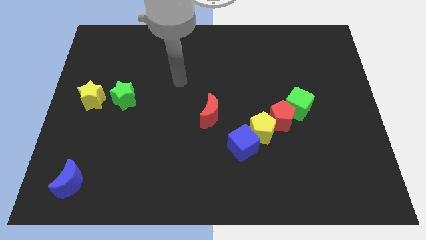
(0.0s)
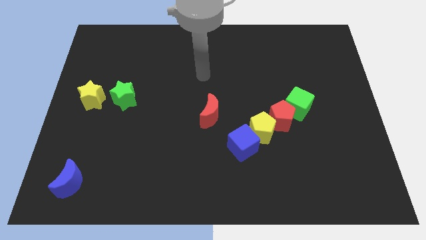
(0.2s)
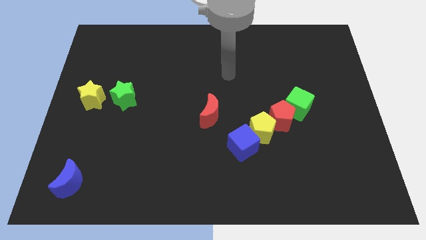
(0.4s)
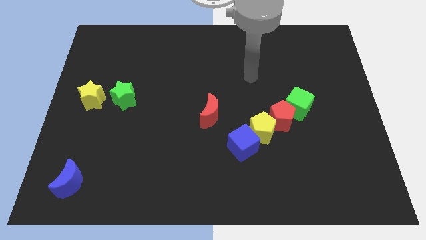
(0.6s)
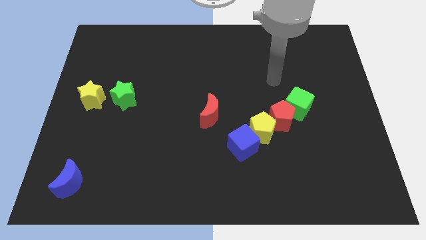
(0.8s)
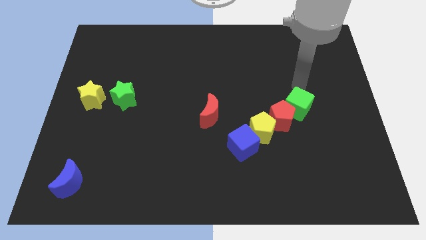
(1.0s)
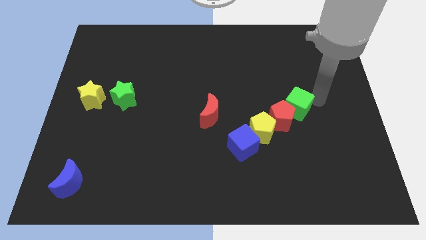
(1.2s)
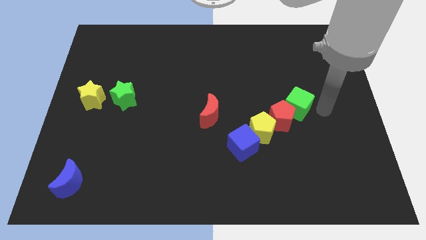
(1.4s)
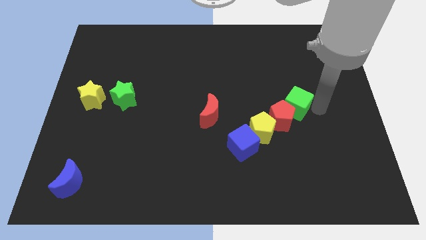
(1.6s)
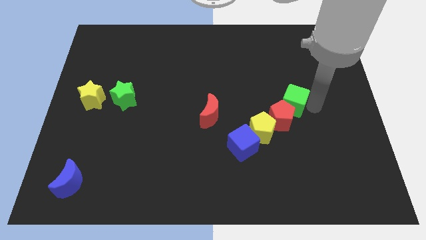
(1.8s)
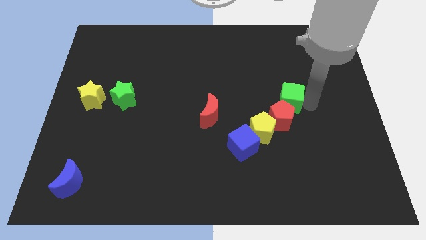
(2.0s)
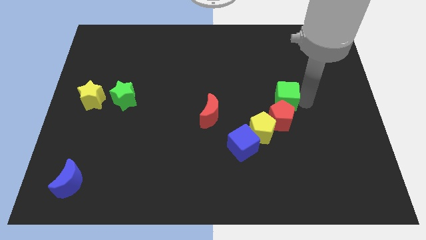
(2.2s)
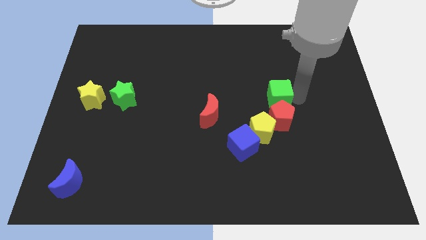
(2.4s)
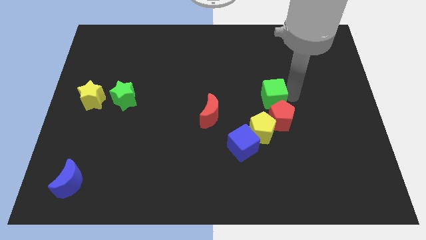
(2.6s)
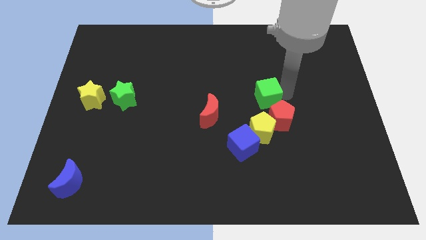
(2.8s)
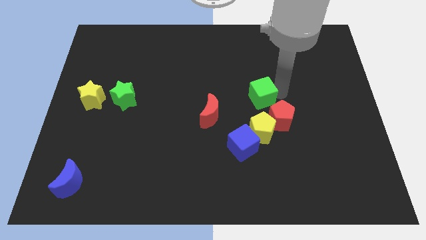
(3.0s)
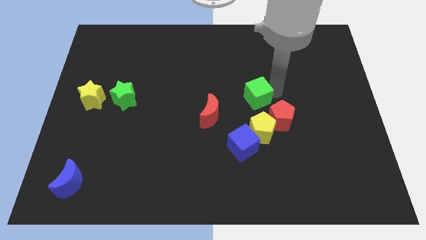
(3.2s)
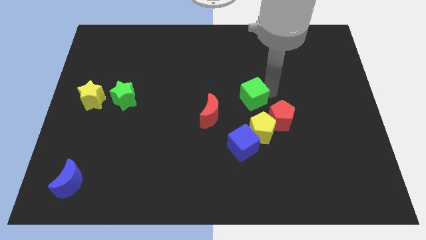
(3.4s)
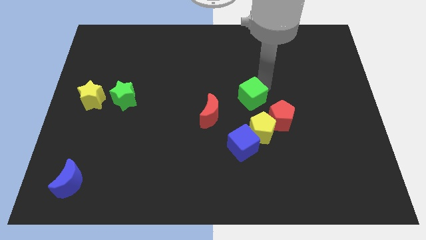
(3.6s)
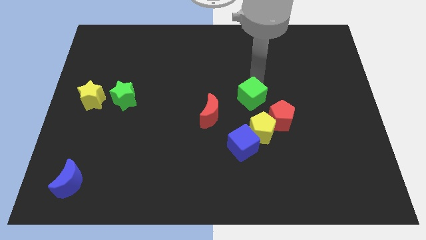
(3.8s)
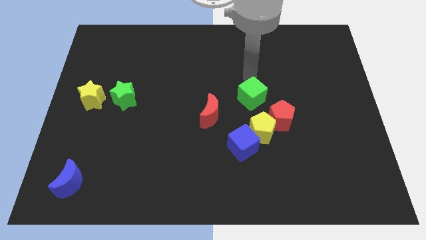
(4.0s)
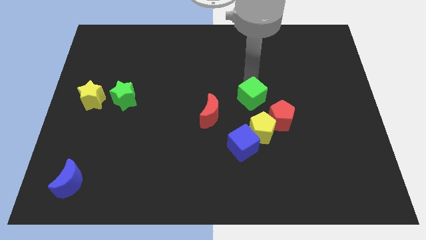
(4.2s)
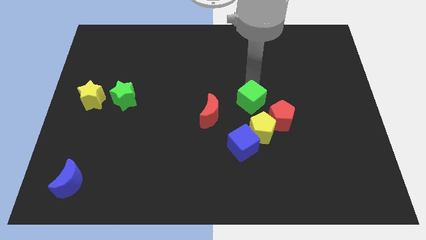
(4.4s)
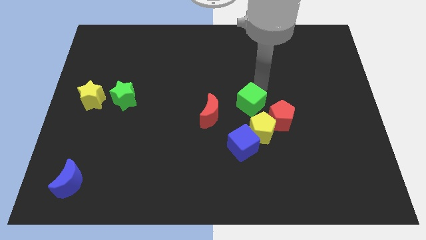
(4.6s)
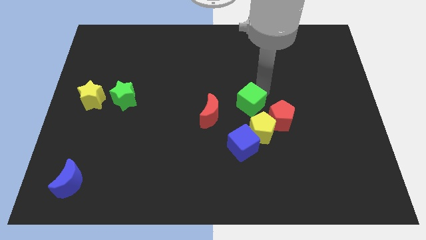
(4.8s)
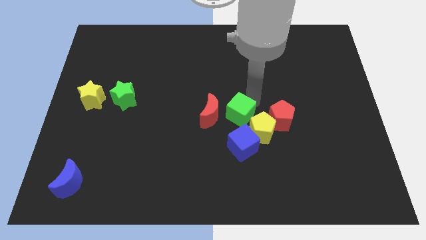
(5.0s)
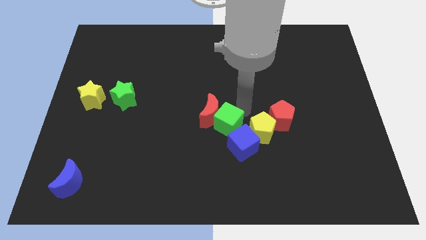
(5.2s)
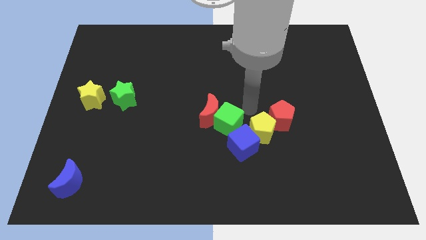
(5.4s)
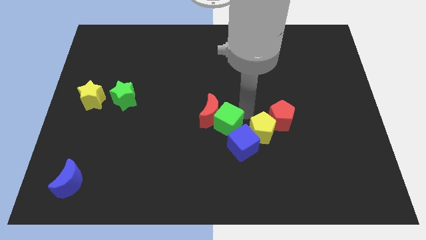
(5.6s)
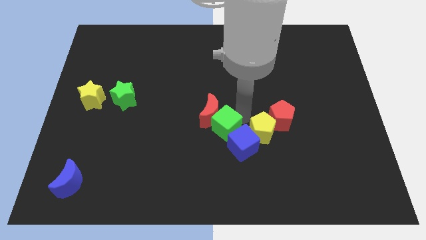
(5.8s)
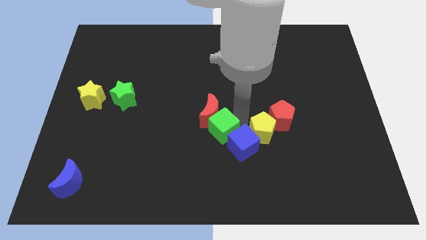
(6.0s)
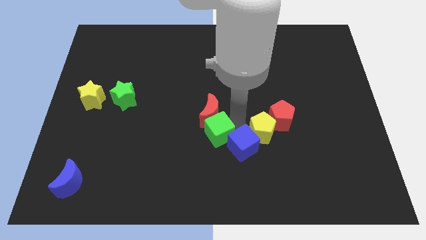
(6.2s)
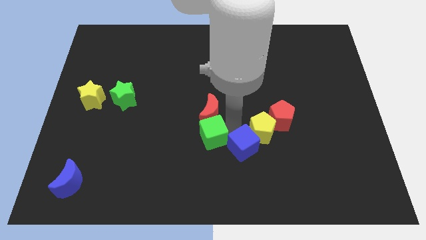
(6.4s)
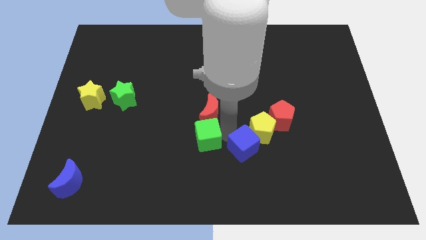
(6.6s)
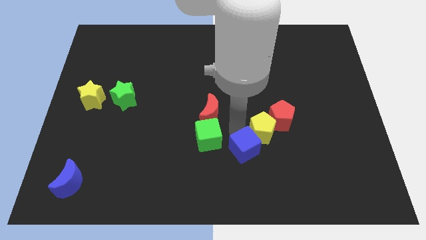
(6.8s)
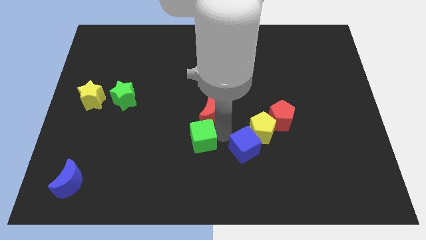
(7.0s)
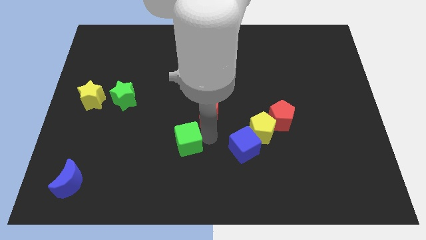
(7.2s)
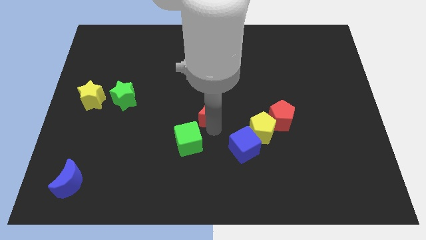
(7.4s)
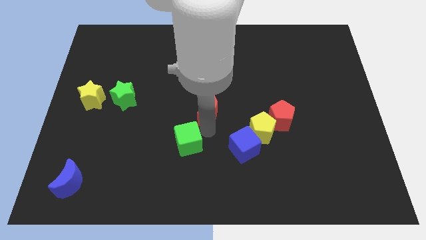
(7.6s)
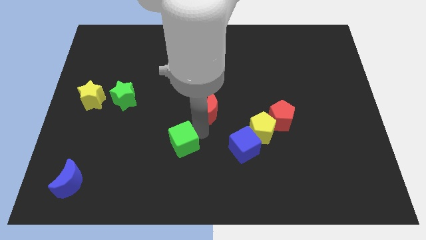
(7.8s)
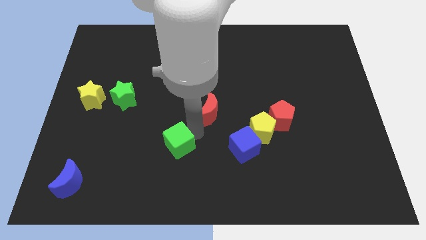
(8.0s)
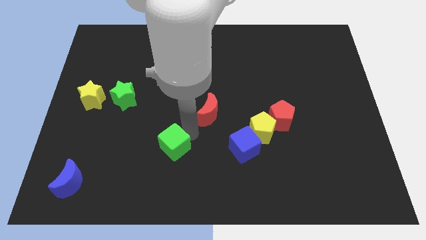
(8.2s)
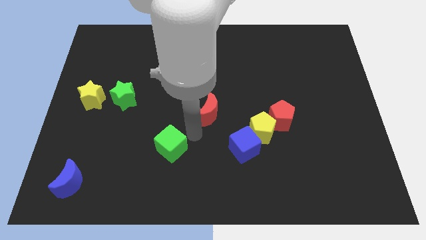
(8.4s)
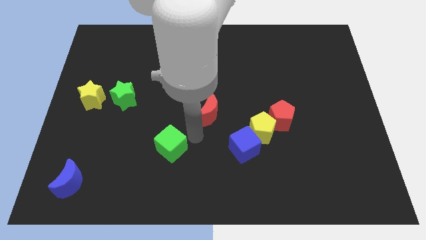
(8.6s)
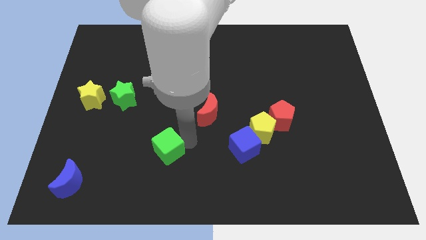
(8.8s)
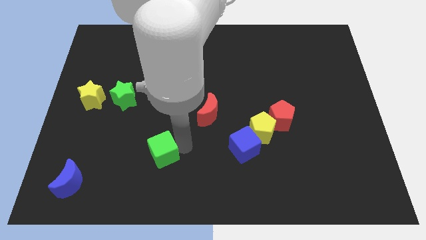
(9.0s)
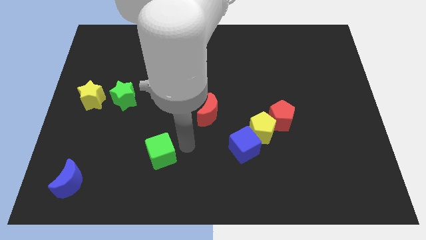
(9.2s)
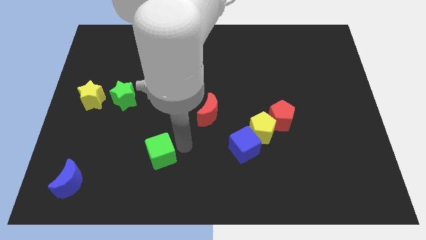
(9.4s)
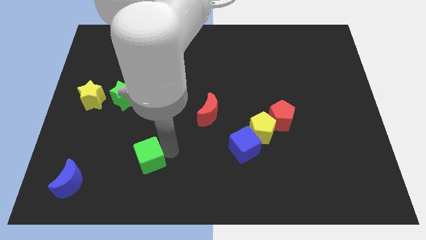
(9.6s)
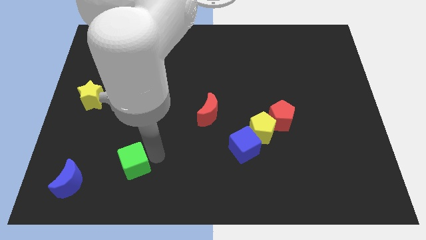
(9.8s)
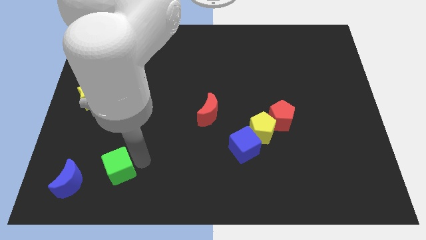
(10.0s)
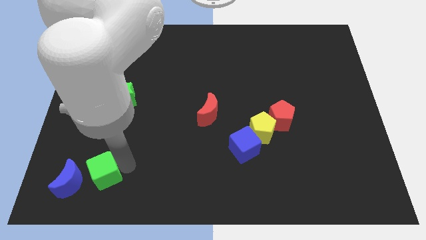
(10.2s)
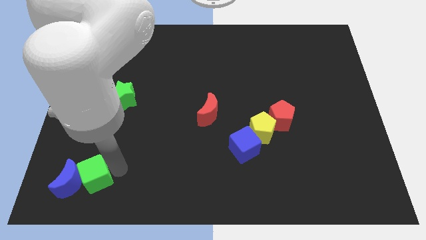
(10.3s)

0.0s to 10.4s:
slide the green cube towards the blue moon

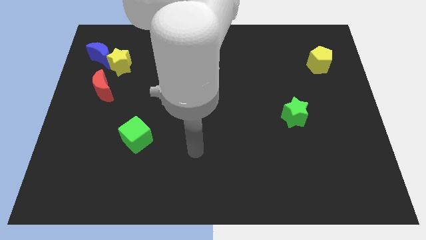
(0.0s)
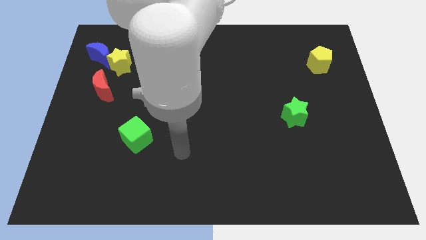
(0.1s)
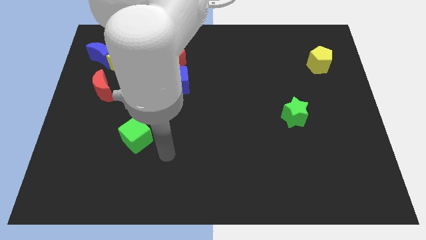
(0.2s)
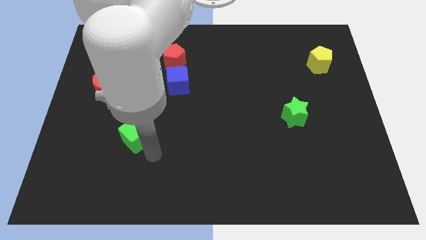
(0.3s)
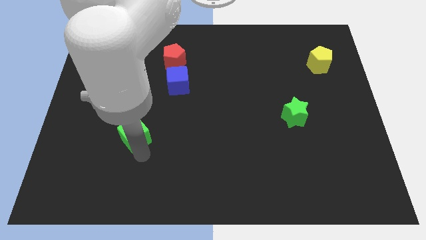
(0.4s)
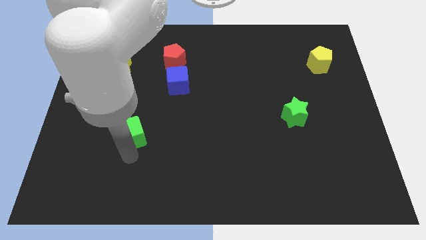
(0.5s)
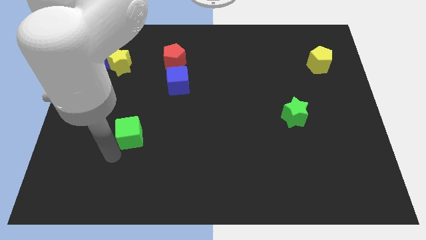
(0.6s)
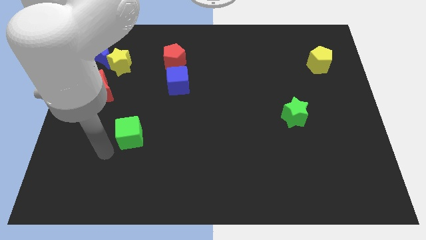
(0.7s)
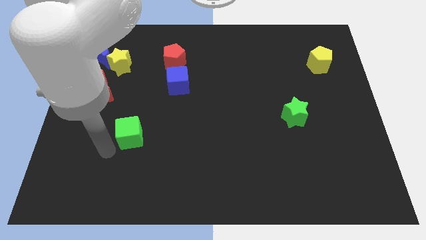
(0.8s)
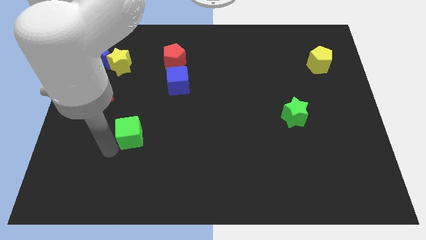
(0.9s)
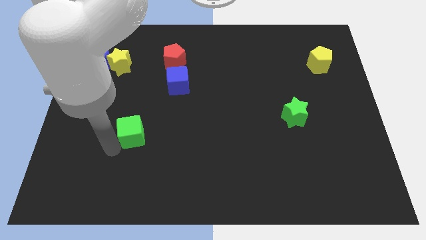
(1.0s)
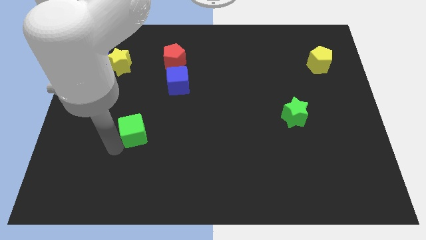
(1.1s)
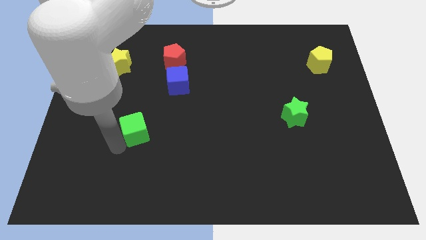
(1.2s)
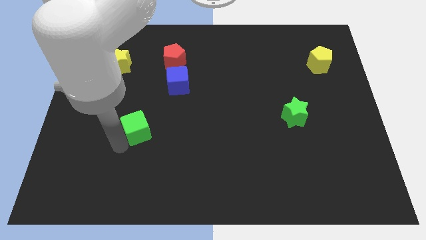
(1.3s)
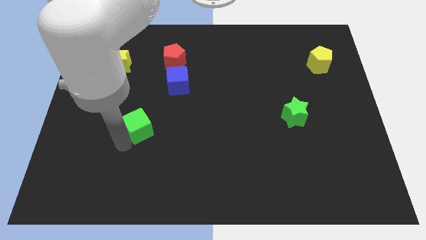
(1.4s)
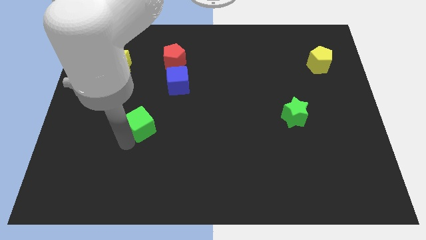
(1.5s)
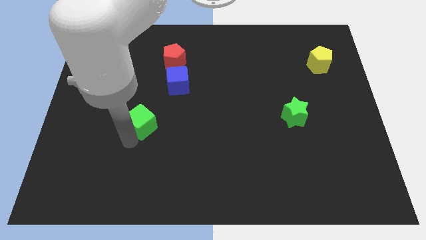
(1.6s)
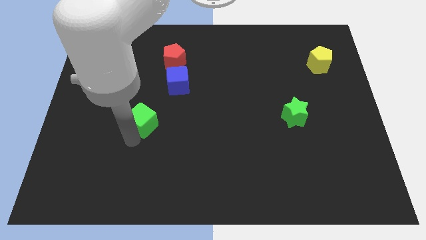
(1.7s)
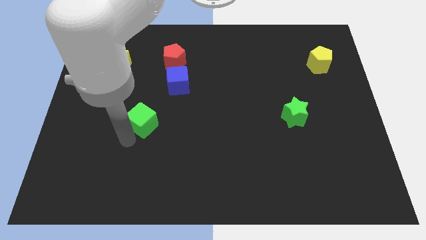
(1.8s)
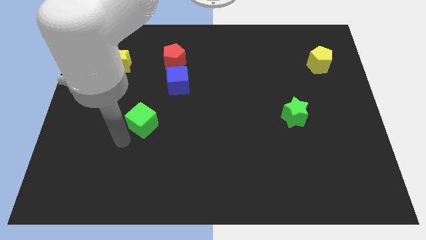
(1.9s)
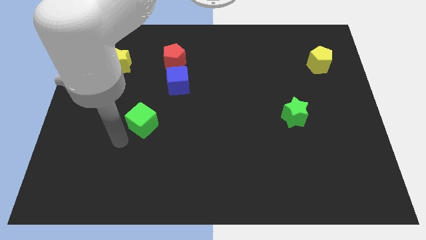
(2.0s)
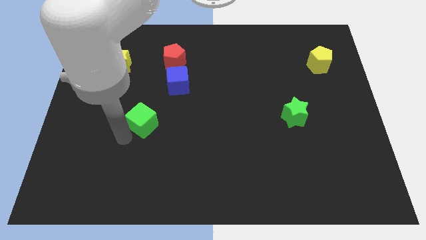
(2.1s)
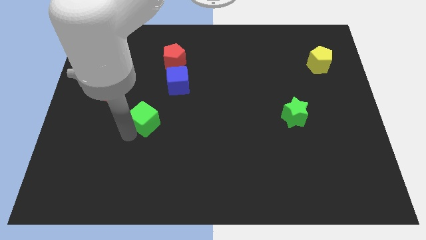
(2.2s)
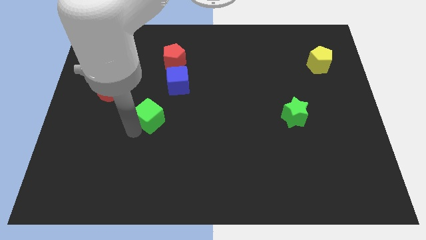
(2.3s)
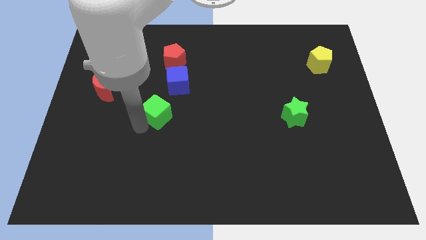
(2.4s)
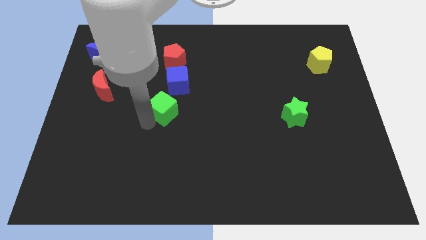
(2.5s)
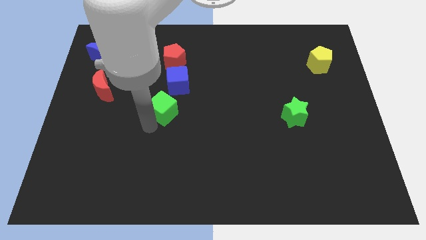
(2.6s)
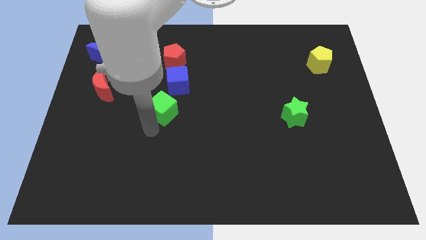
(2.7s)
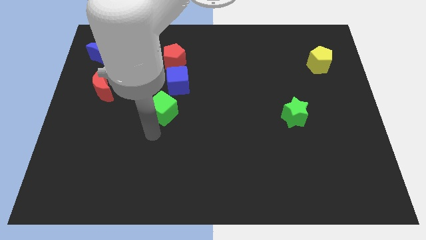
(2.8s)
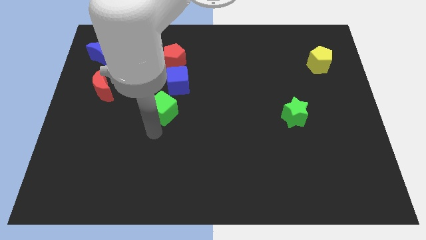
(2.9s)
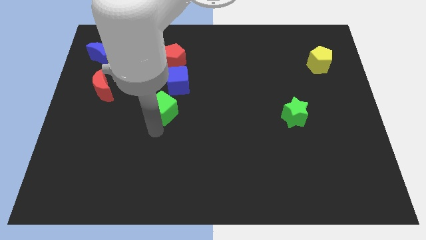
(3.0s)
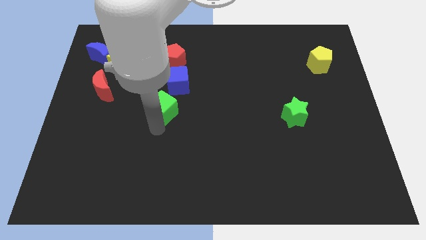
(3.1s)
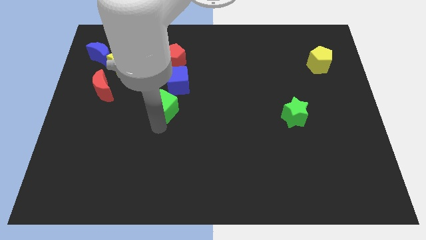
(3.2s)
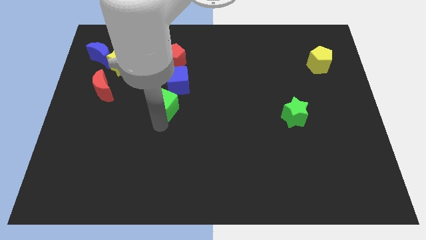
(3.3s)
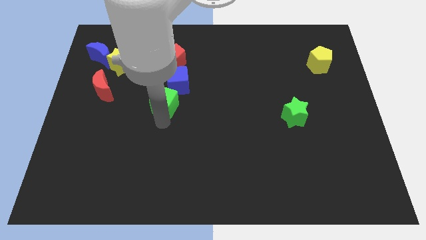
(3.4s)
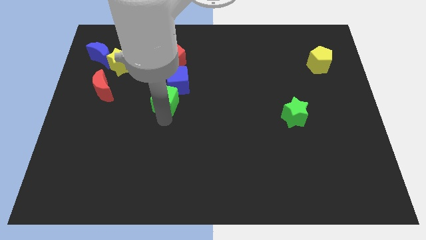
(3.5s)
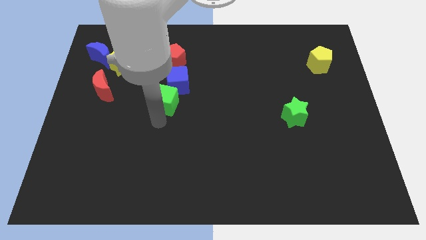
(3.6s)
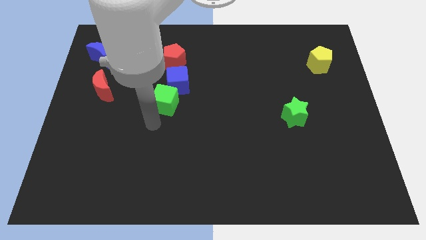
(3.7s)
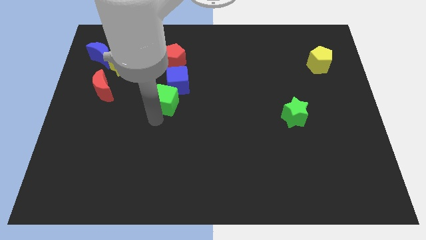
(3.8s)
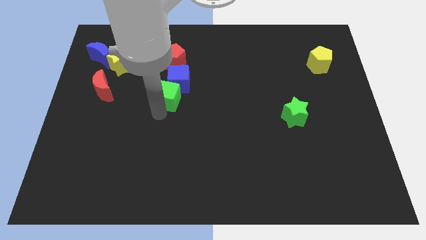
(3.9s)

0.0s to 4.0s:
slide the green cube close to the blue cube
